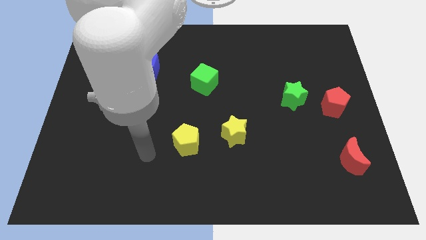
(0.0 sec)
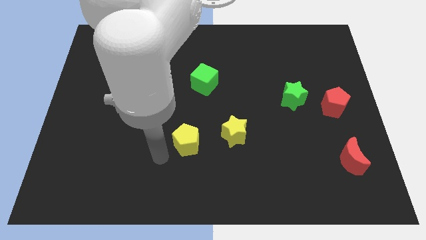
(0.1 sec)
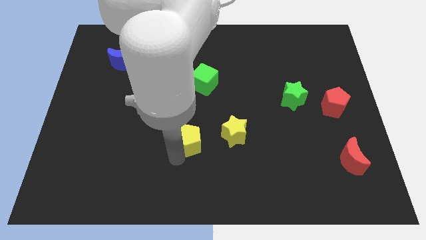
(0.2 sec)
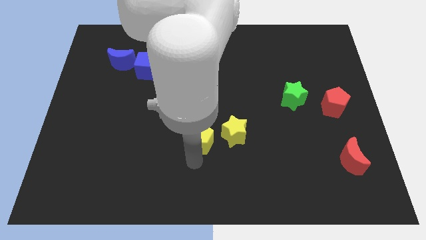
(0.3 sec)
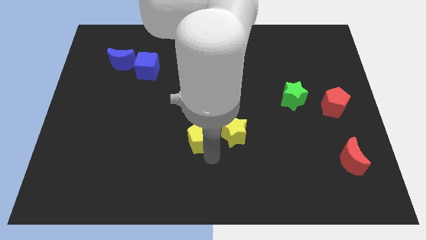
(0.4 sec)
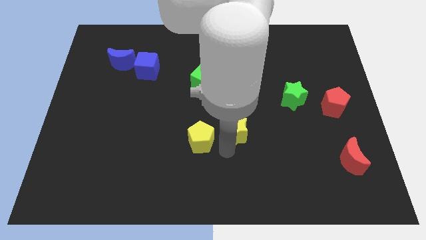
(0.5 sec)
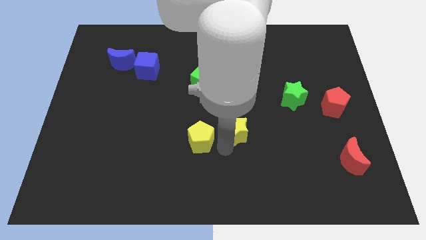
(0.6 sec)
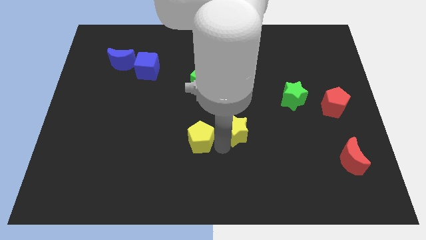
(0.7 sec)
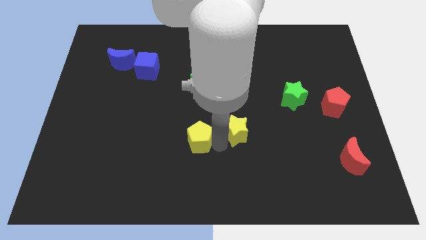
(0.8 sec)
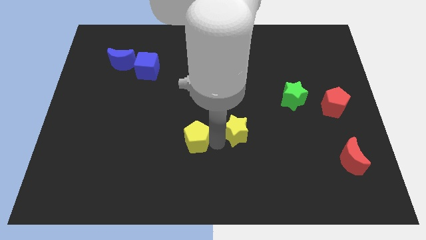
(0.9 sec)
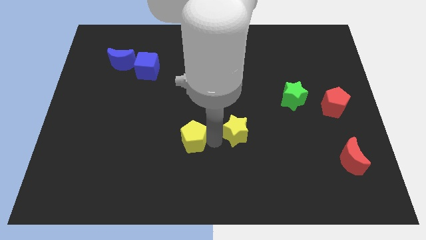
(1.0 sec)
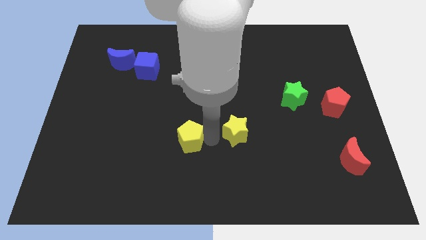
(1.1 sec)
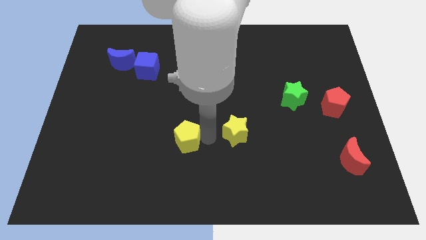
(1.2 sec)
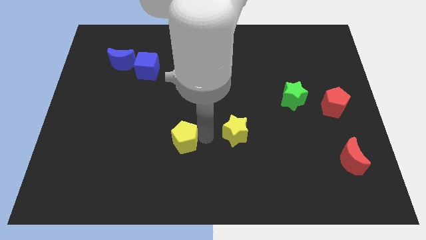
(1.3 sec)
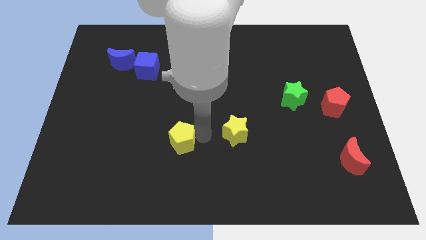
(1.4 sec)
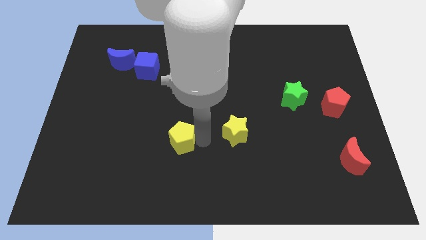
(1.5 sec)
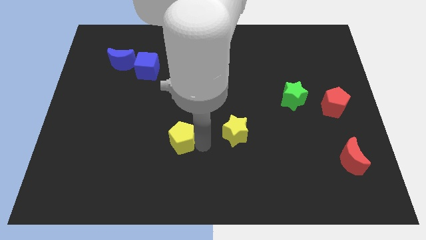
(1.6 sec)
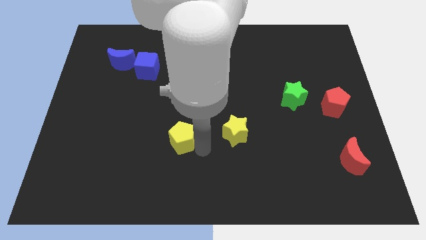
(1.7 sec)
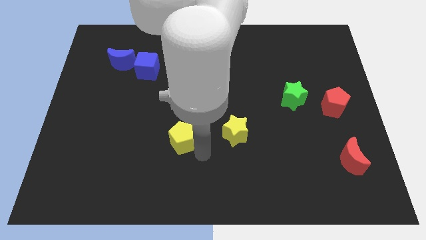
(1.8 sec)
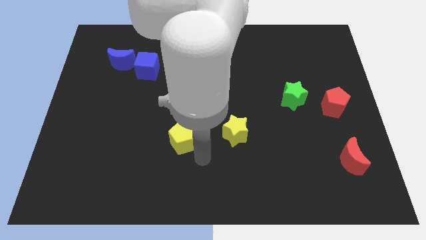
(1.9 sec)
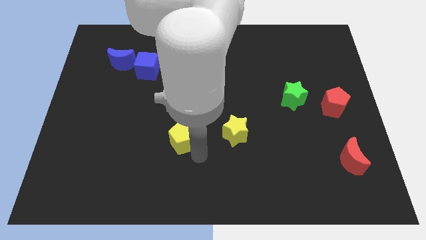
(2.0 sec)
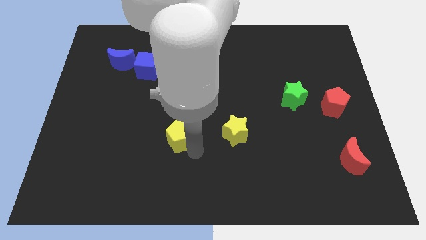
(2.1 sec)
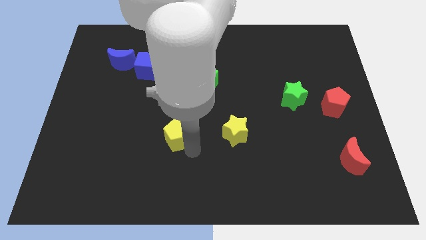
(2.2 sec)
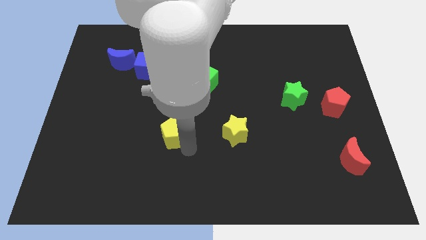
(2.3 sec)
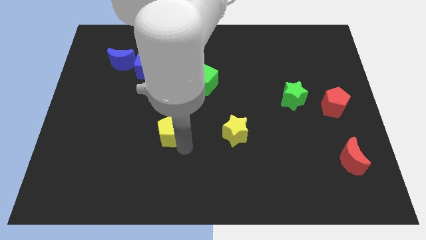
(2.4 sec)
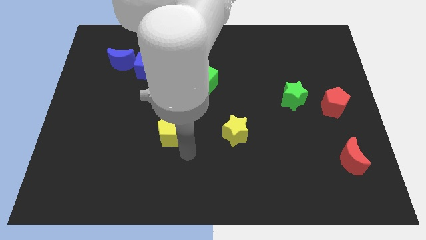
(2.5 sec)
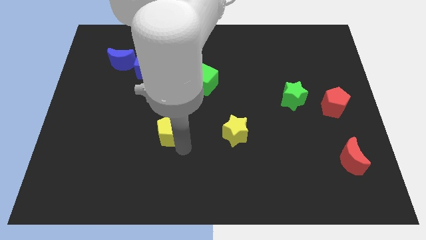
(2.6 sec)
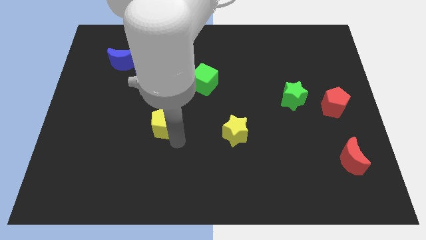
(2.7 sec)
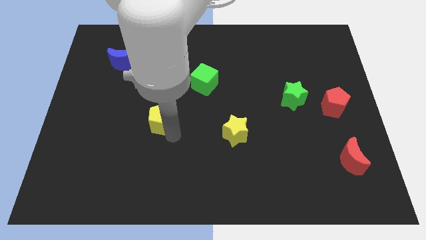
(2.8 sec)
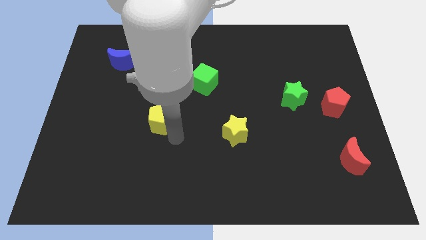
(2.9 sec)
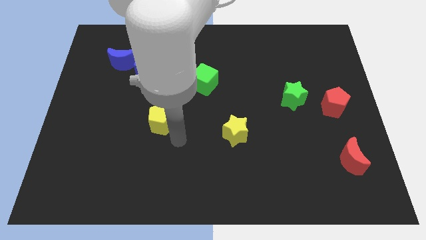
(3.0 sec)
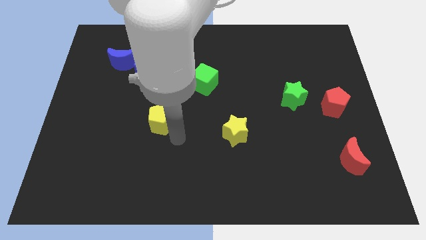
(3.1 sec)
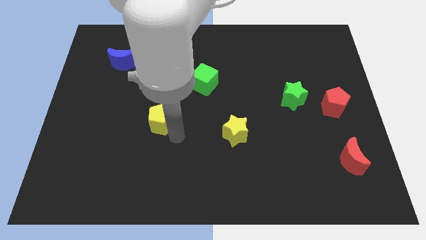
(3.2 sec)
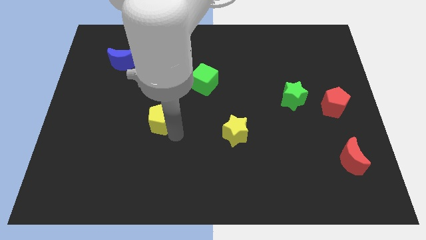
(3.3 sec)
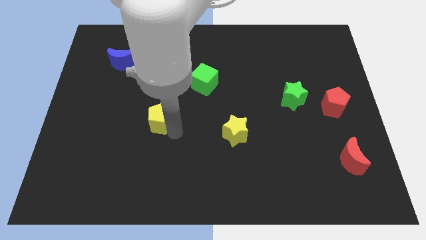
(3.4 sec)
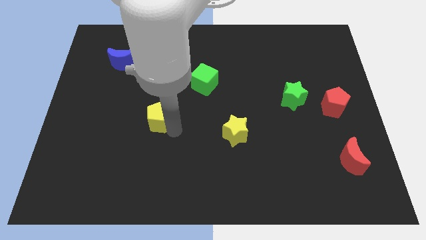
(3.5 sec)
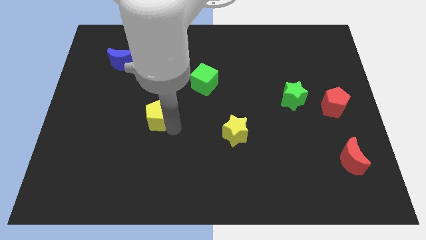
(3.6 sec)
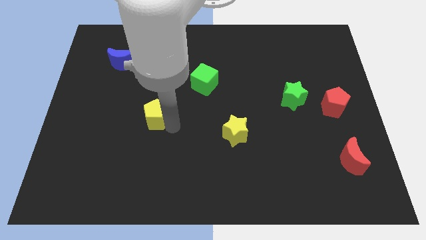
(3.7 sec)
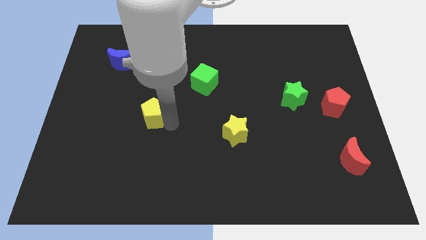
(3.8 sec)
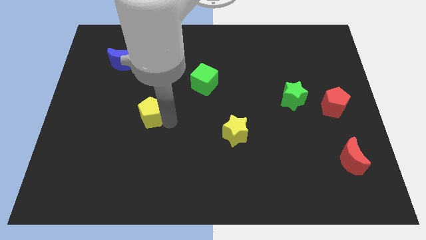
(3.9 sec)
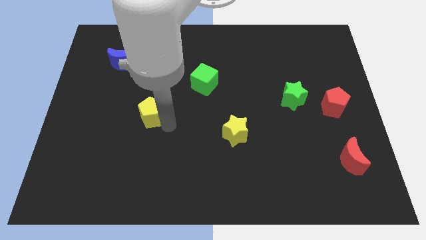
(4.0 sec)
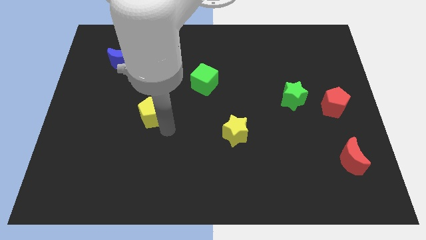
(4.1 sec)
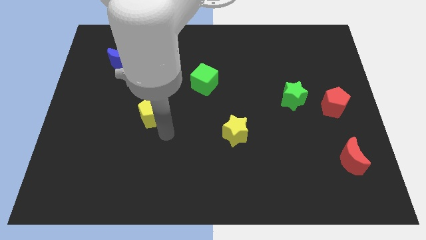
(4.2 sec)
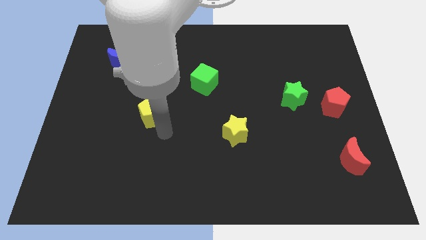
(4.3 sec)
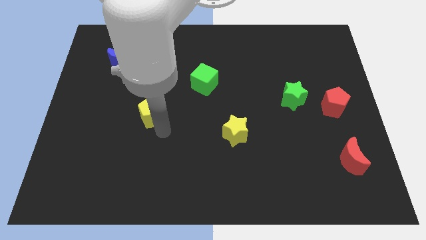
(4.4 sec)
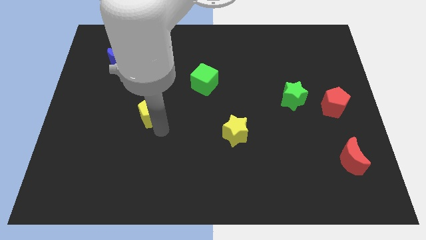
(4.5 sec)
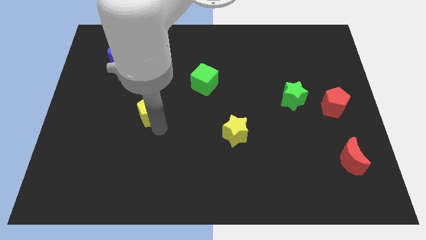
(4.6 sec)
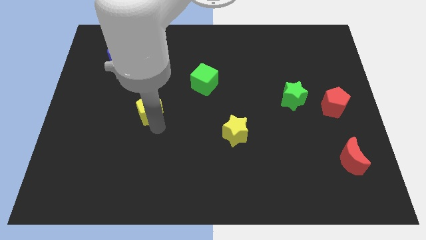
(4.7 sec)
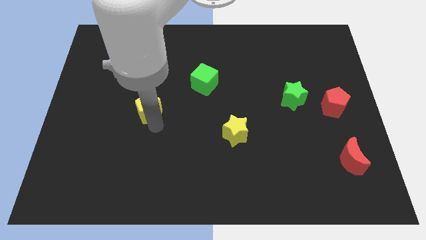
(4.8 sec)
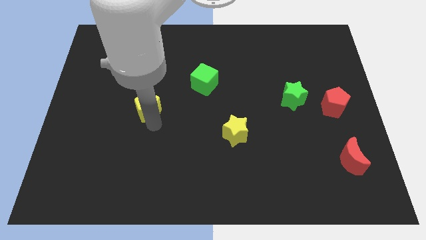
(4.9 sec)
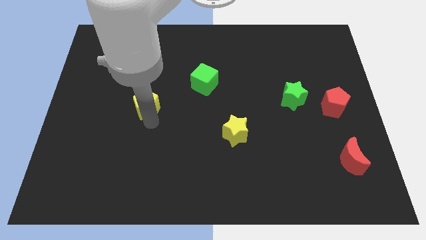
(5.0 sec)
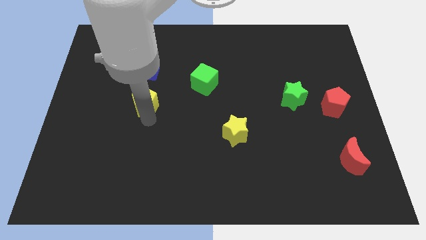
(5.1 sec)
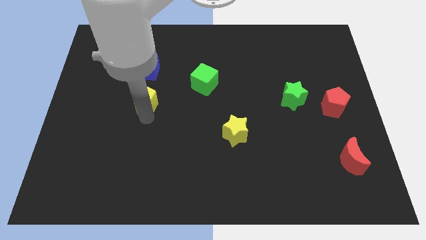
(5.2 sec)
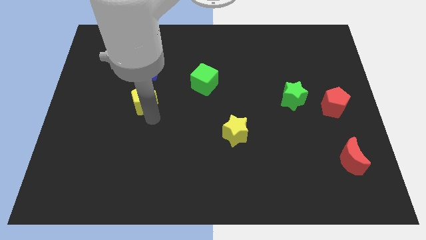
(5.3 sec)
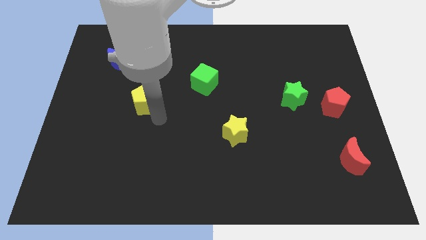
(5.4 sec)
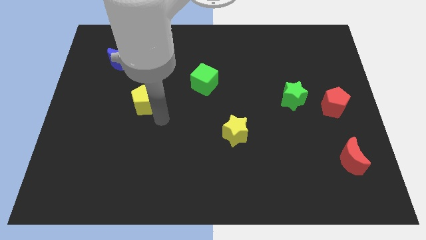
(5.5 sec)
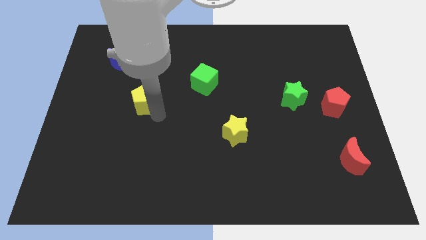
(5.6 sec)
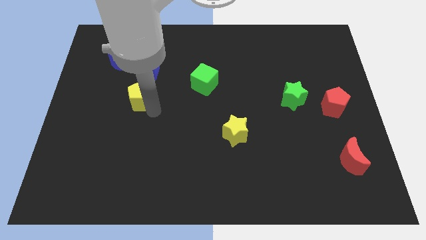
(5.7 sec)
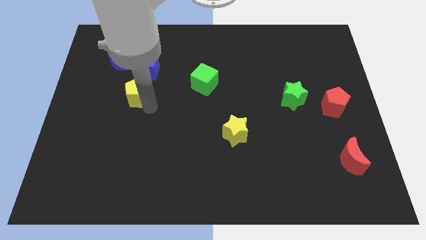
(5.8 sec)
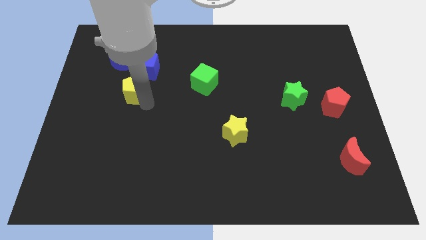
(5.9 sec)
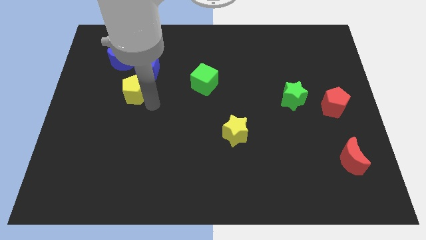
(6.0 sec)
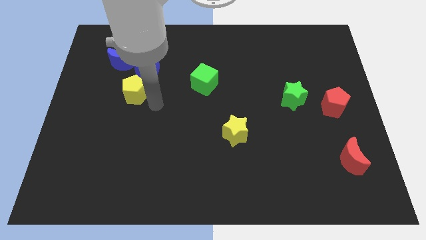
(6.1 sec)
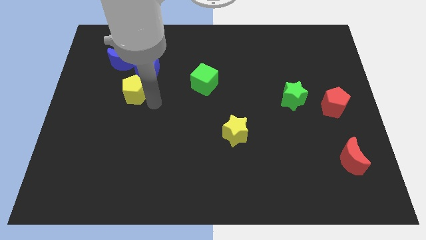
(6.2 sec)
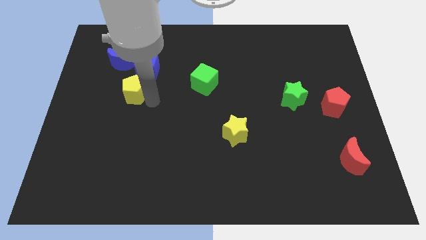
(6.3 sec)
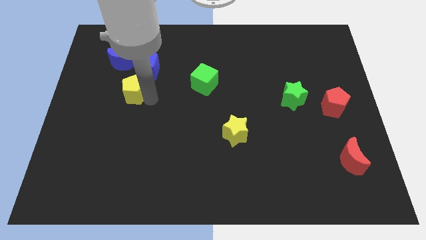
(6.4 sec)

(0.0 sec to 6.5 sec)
slide the yellow pentagon diagonally up and left

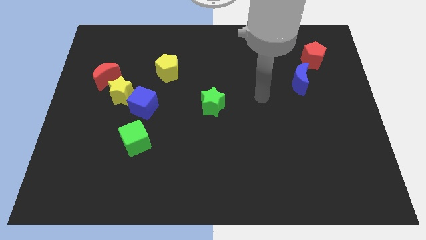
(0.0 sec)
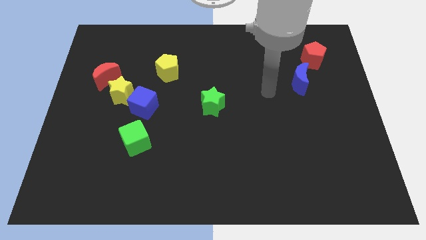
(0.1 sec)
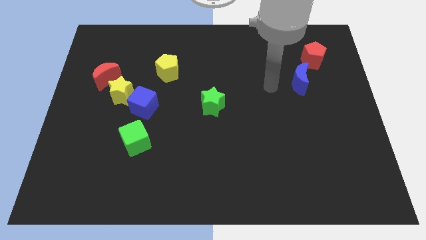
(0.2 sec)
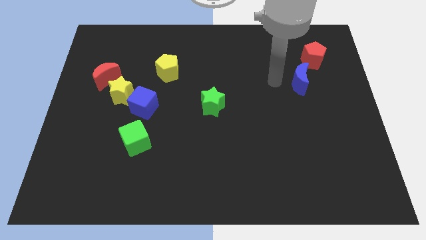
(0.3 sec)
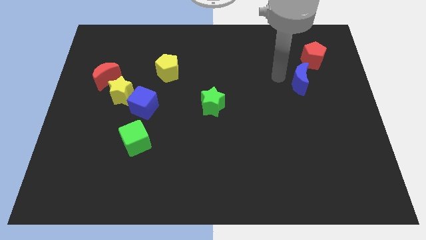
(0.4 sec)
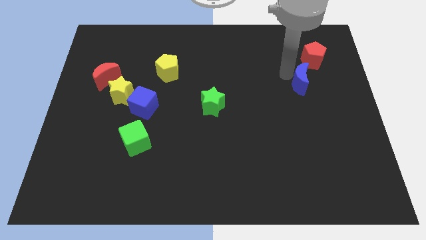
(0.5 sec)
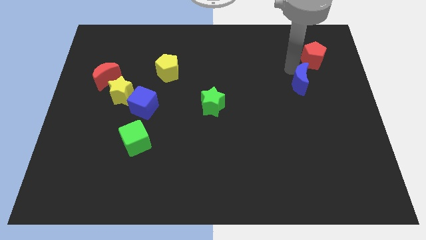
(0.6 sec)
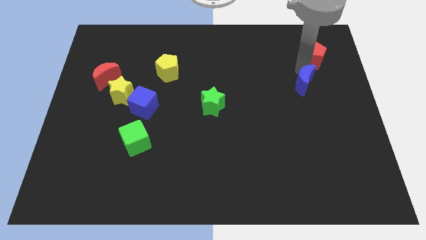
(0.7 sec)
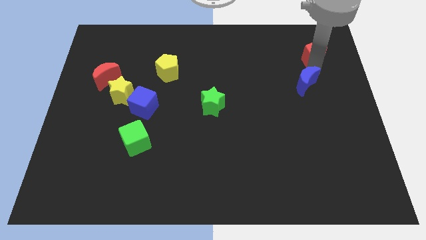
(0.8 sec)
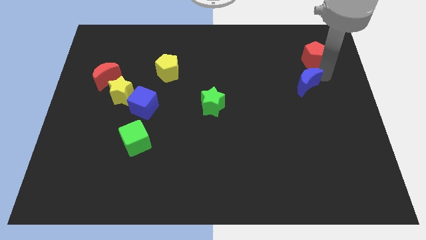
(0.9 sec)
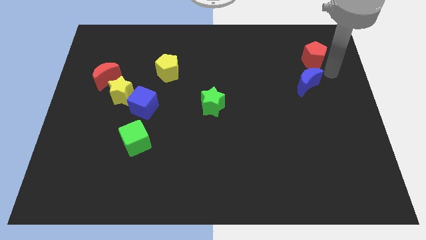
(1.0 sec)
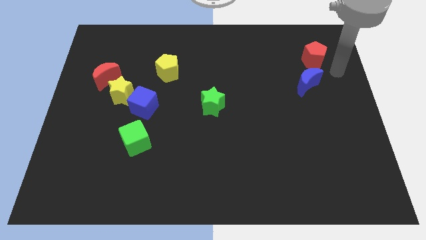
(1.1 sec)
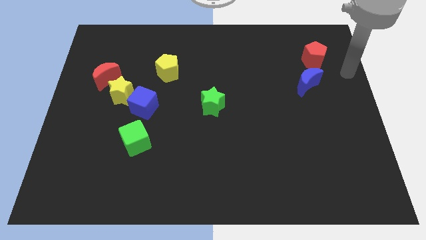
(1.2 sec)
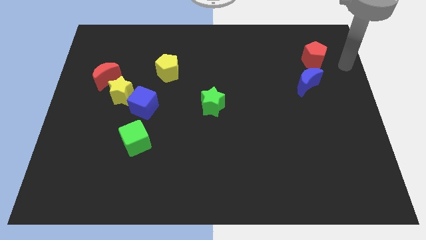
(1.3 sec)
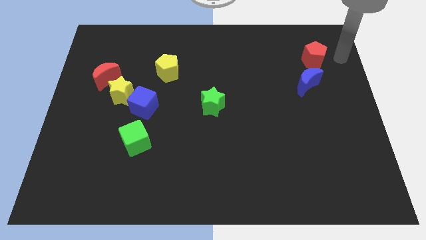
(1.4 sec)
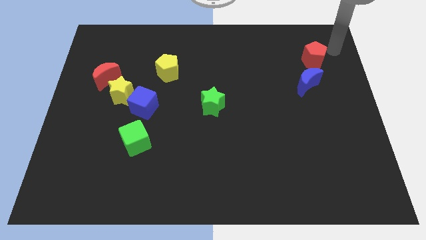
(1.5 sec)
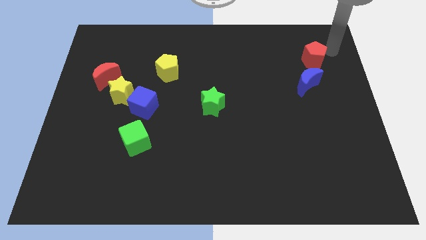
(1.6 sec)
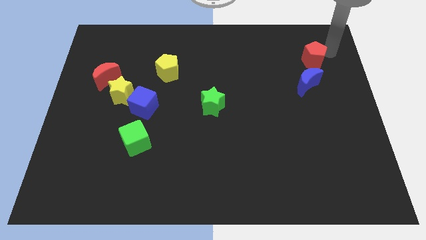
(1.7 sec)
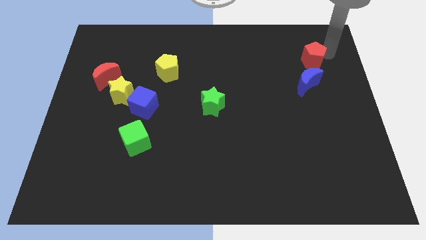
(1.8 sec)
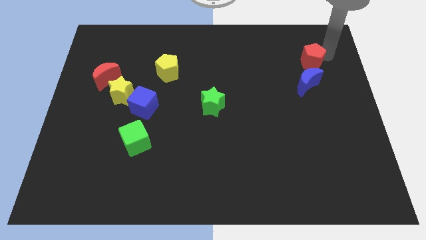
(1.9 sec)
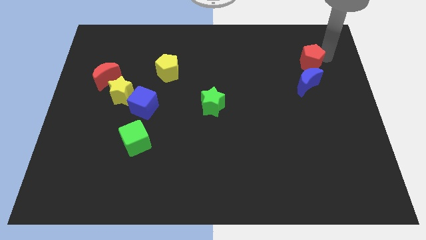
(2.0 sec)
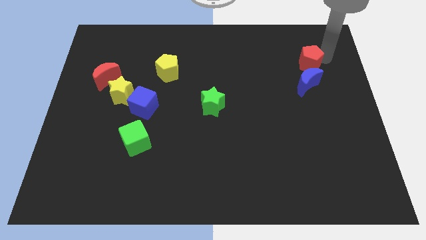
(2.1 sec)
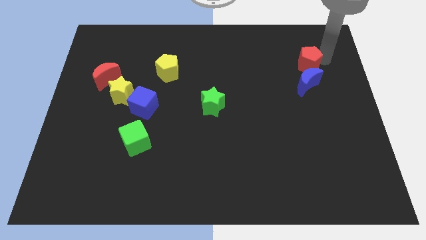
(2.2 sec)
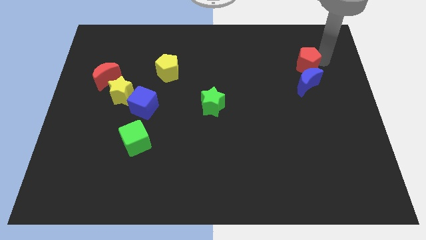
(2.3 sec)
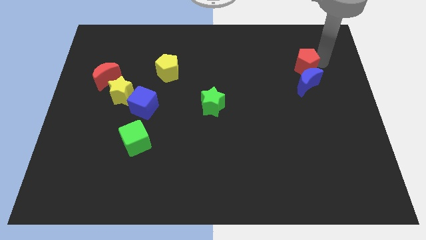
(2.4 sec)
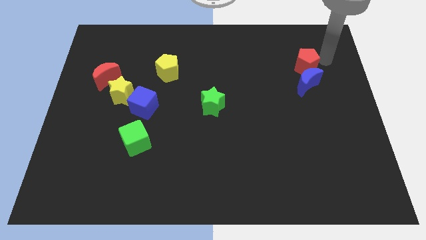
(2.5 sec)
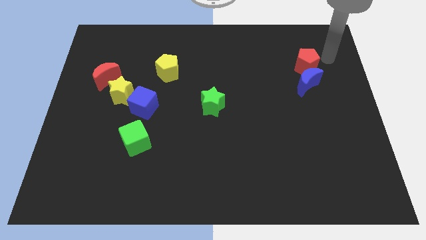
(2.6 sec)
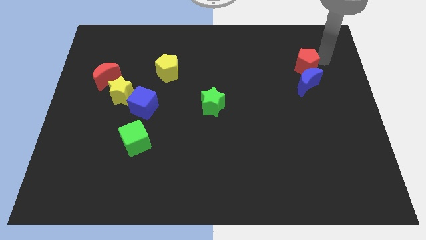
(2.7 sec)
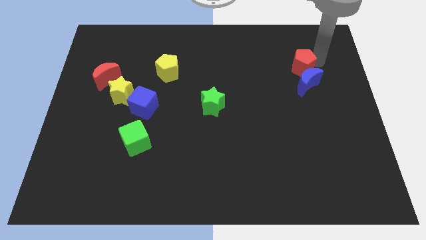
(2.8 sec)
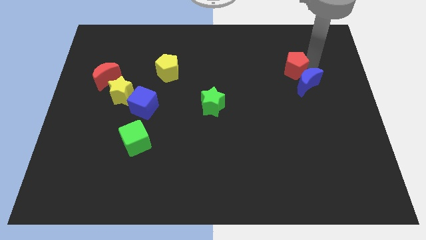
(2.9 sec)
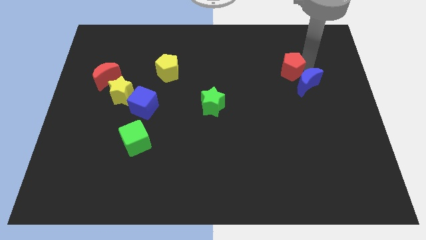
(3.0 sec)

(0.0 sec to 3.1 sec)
move the red pentagon a little down and to the left diagonally
